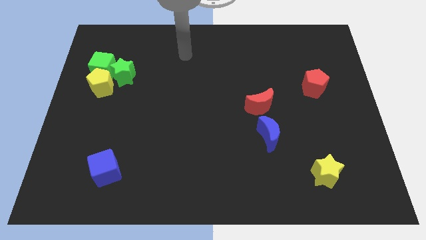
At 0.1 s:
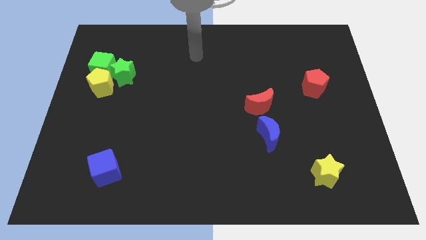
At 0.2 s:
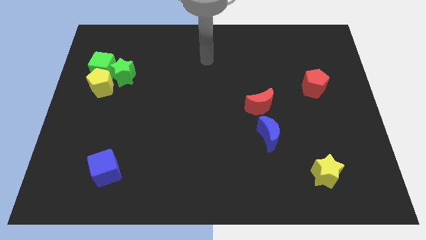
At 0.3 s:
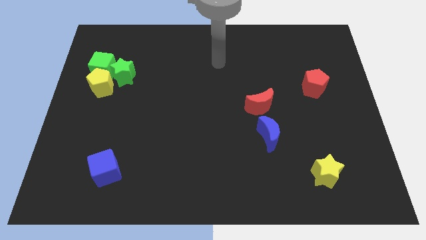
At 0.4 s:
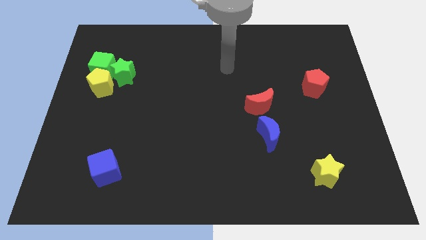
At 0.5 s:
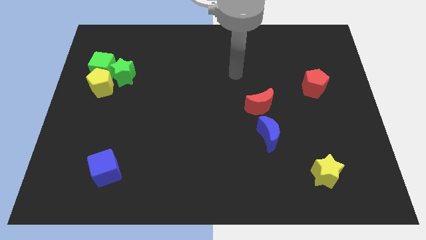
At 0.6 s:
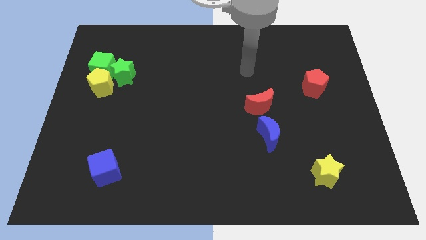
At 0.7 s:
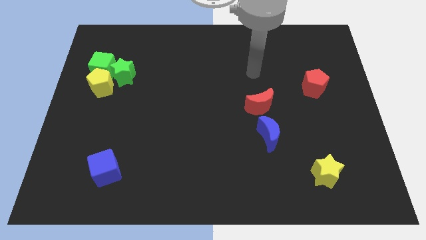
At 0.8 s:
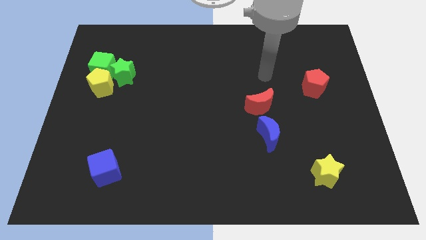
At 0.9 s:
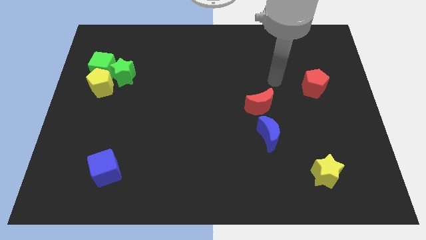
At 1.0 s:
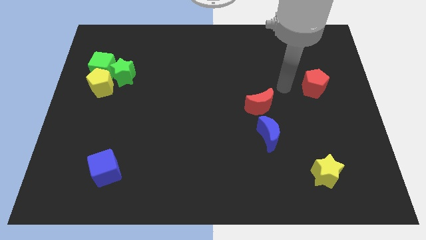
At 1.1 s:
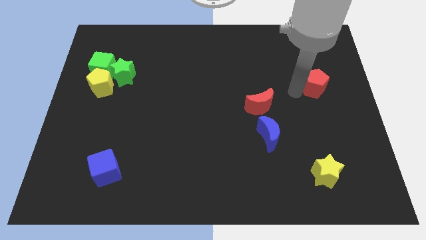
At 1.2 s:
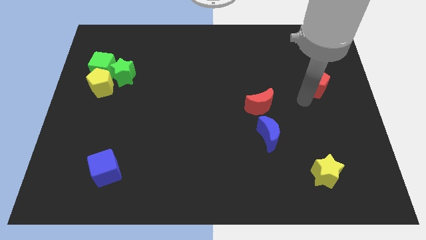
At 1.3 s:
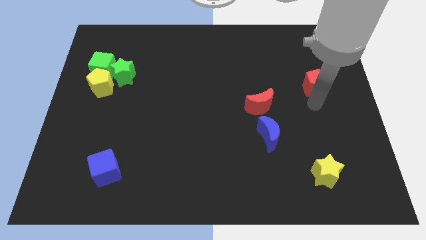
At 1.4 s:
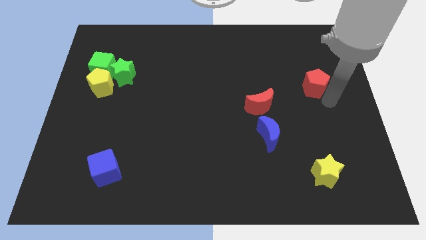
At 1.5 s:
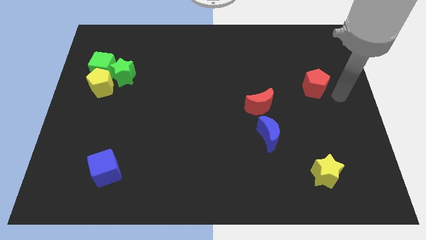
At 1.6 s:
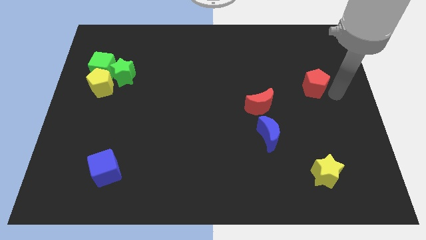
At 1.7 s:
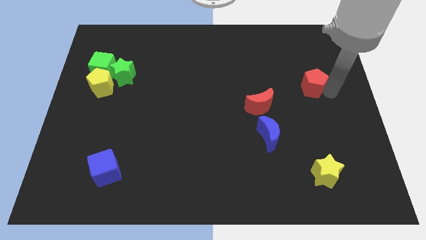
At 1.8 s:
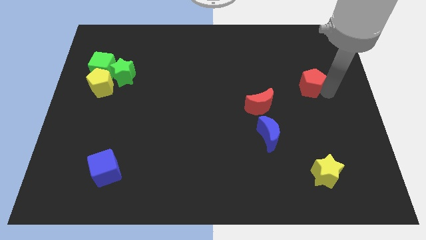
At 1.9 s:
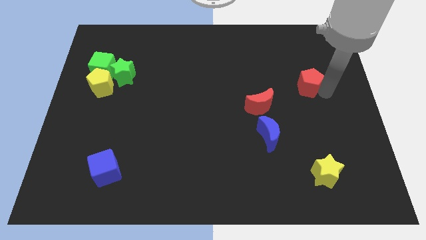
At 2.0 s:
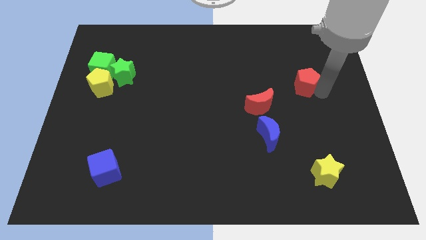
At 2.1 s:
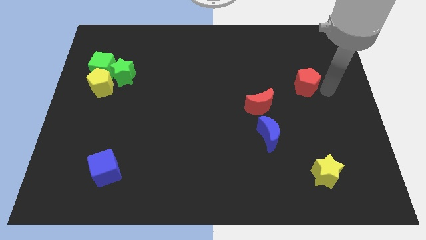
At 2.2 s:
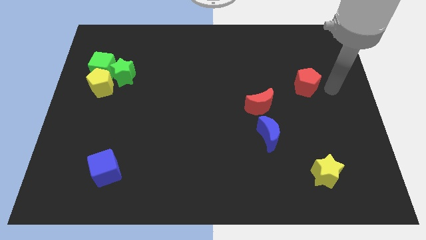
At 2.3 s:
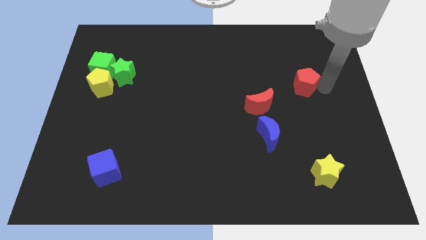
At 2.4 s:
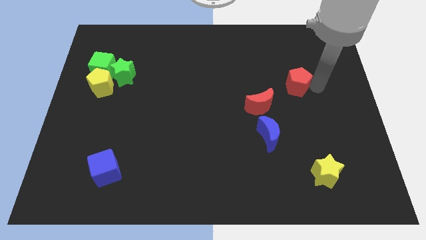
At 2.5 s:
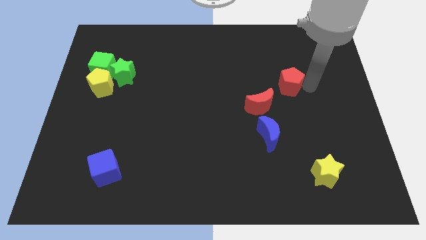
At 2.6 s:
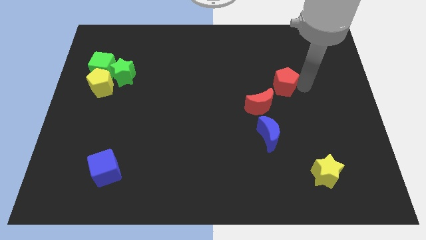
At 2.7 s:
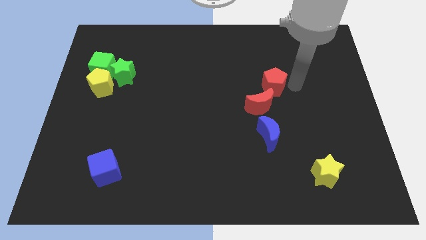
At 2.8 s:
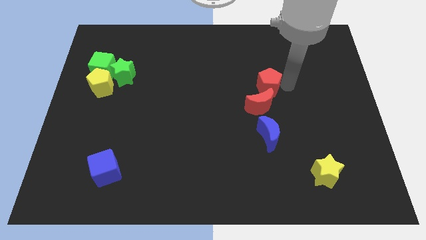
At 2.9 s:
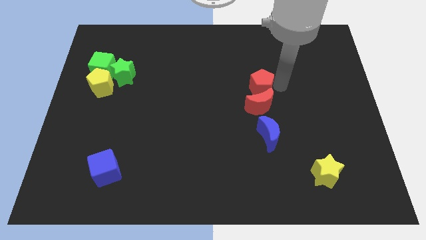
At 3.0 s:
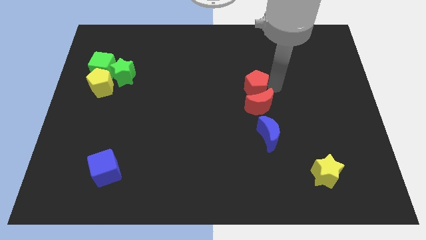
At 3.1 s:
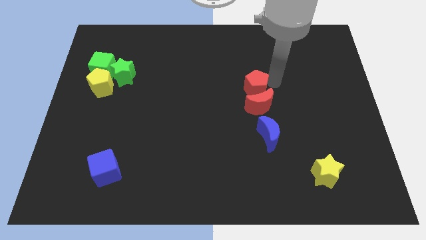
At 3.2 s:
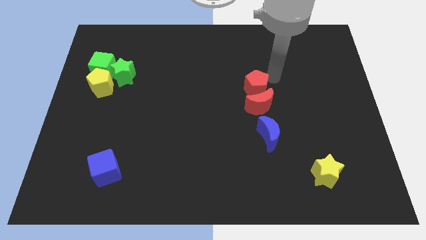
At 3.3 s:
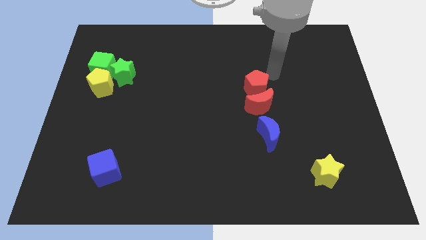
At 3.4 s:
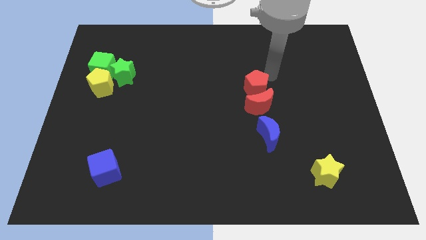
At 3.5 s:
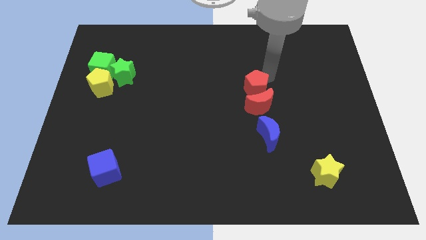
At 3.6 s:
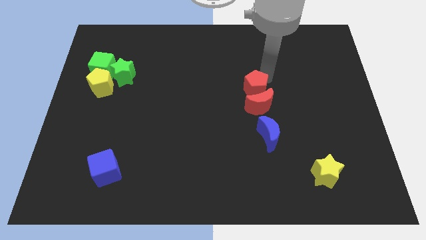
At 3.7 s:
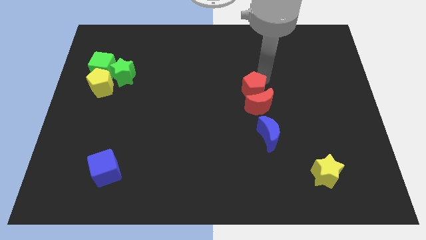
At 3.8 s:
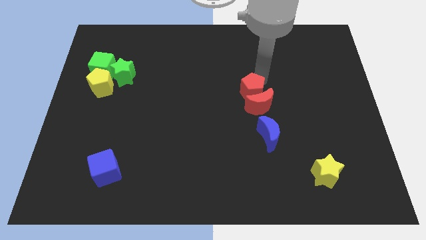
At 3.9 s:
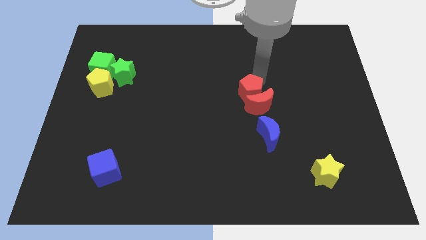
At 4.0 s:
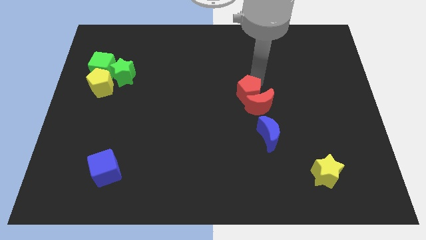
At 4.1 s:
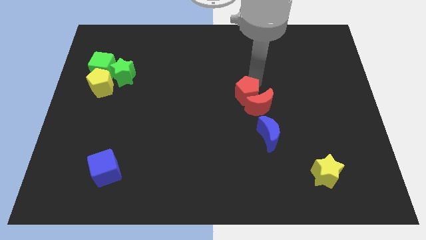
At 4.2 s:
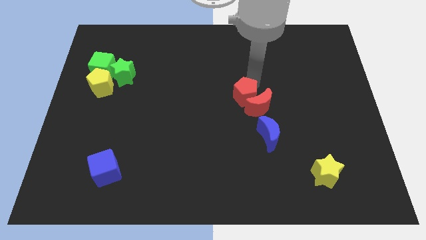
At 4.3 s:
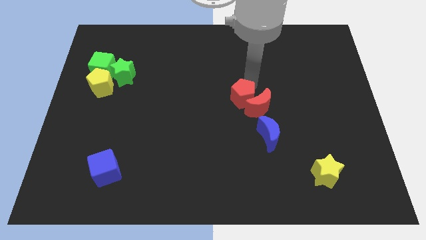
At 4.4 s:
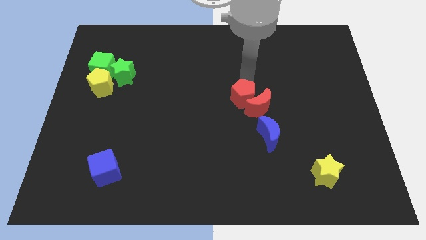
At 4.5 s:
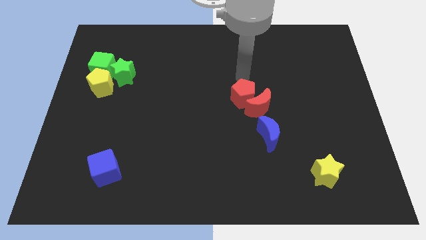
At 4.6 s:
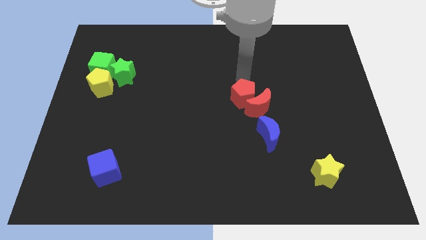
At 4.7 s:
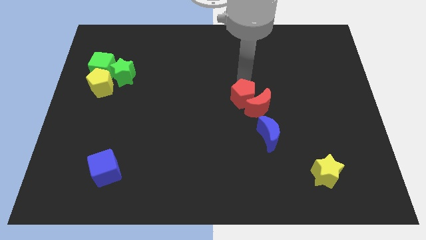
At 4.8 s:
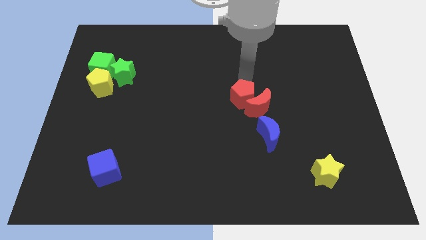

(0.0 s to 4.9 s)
put the red pentagon to the top left of the blue moon

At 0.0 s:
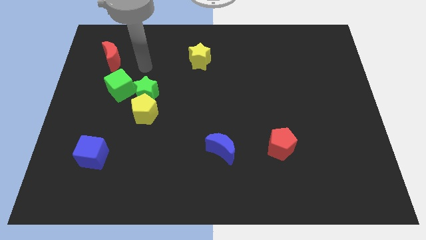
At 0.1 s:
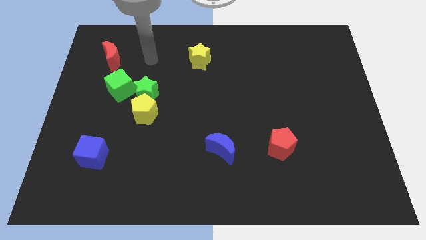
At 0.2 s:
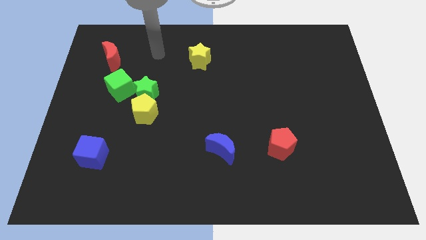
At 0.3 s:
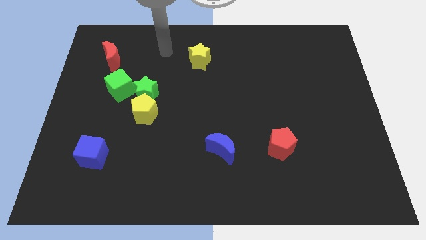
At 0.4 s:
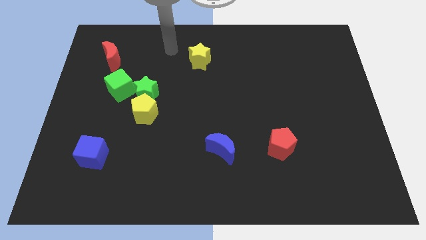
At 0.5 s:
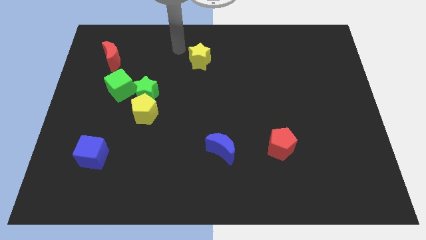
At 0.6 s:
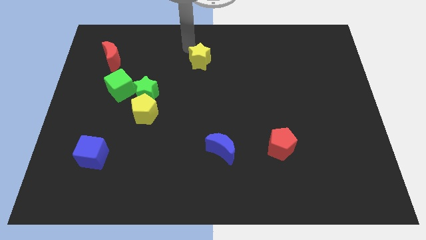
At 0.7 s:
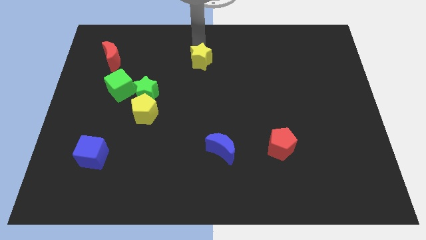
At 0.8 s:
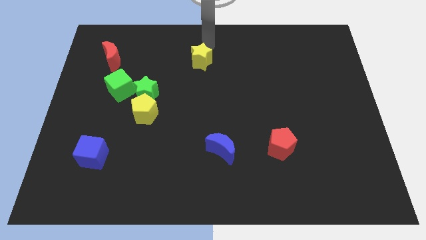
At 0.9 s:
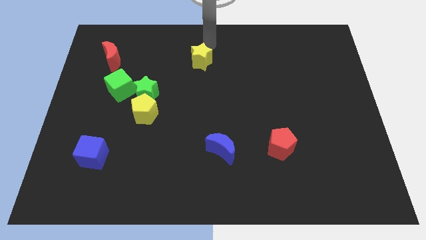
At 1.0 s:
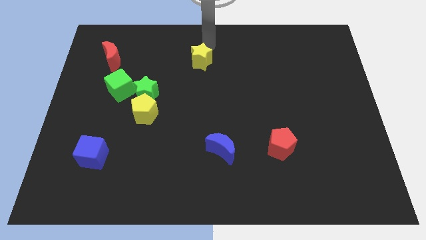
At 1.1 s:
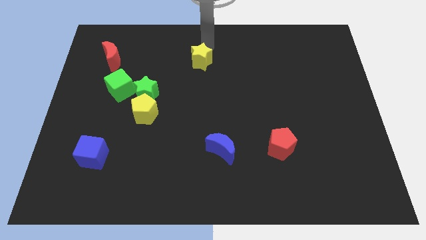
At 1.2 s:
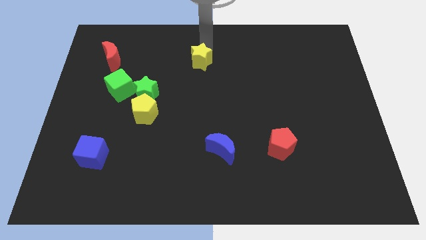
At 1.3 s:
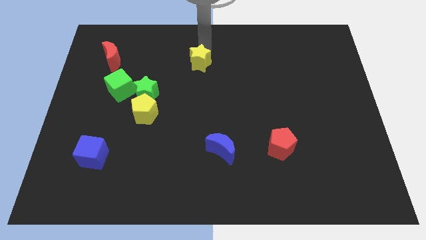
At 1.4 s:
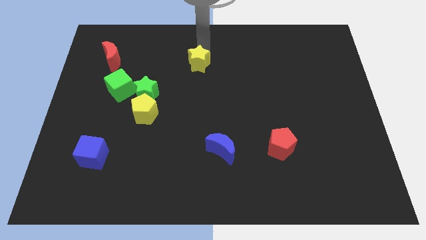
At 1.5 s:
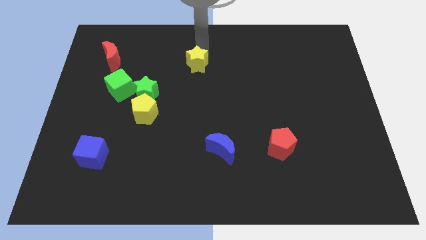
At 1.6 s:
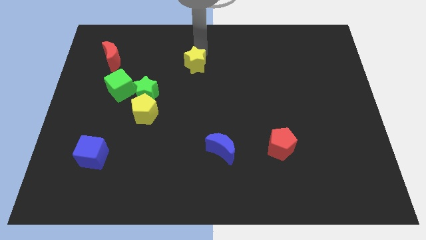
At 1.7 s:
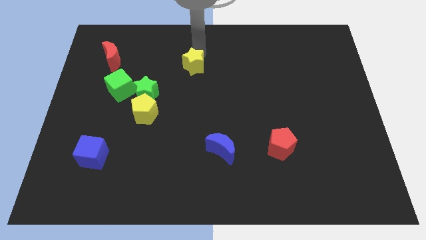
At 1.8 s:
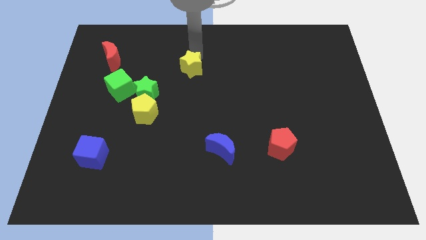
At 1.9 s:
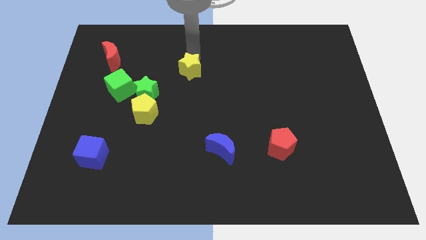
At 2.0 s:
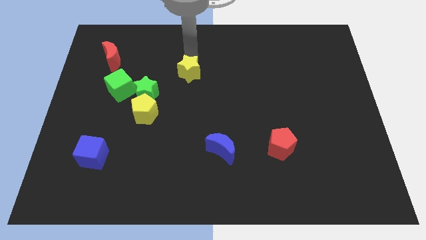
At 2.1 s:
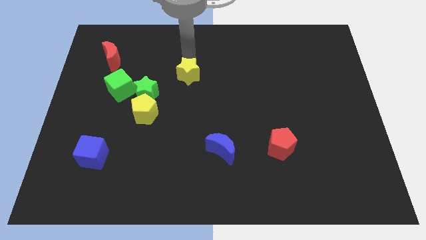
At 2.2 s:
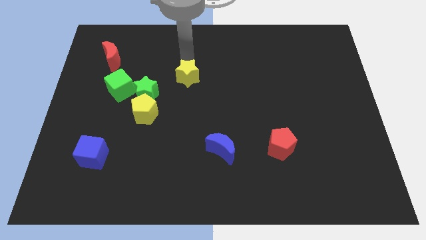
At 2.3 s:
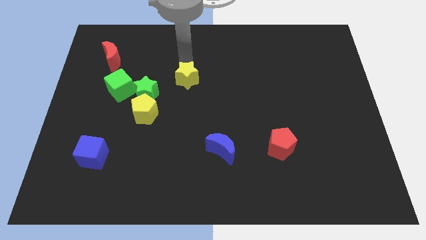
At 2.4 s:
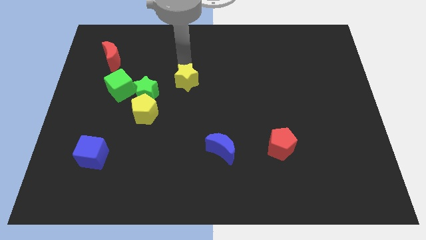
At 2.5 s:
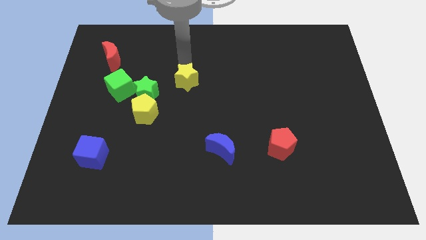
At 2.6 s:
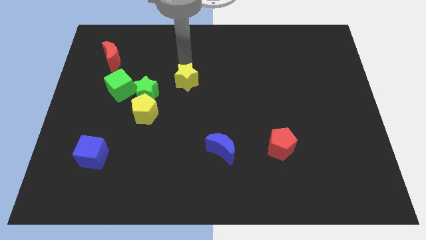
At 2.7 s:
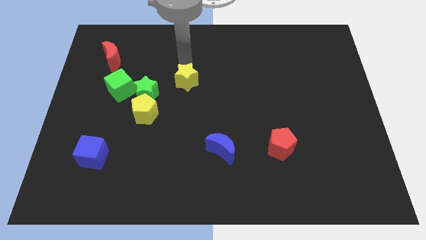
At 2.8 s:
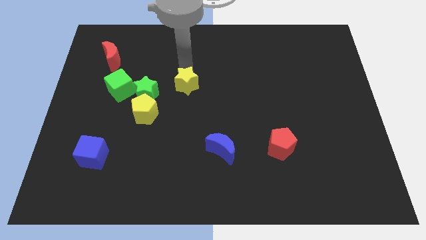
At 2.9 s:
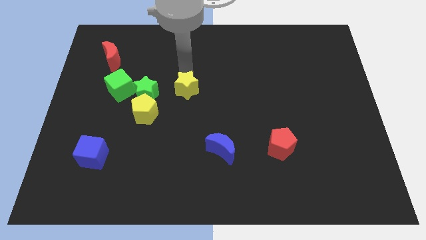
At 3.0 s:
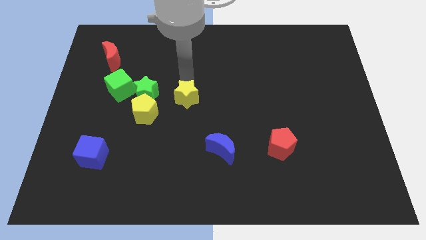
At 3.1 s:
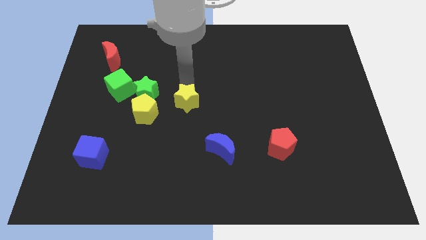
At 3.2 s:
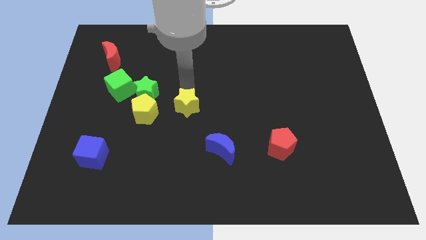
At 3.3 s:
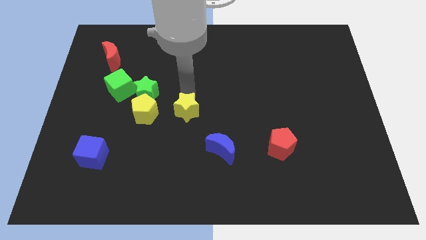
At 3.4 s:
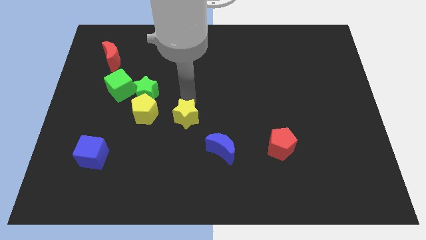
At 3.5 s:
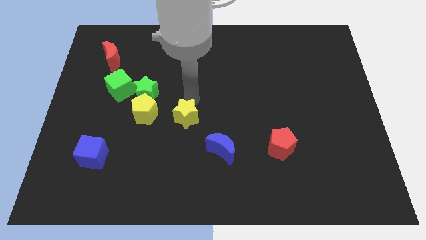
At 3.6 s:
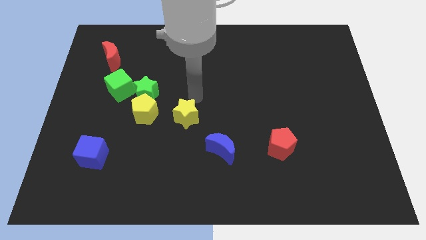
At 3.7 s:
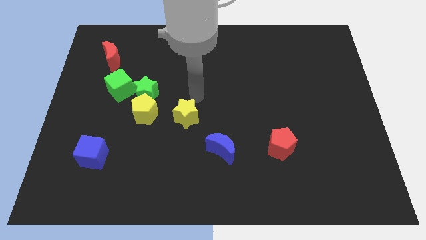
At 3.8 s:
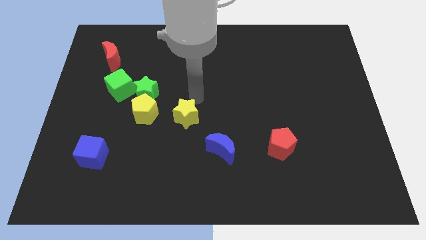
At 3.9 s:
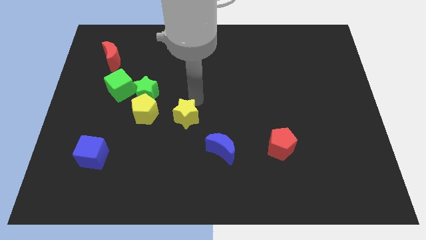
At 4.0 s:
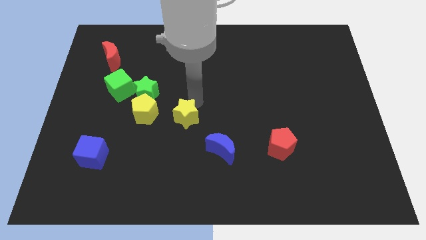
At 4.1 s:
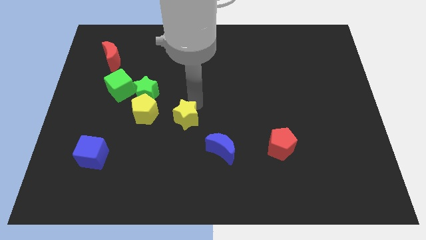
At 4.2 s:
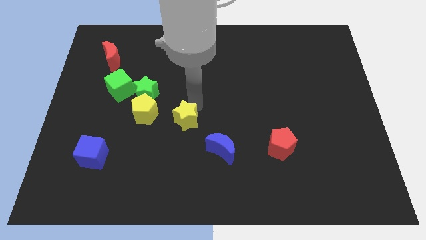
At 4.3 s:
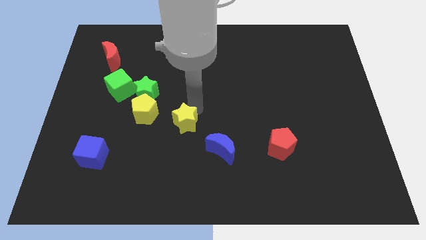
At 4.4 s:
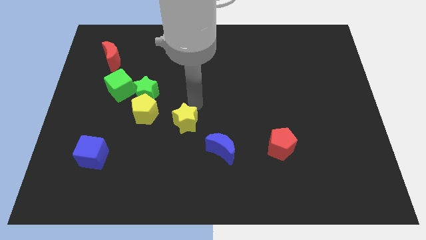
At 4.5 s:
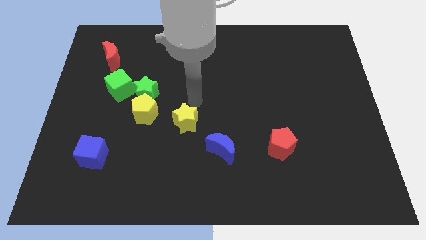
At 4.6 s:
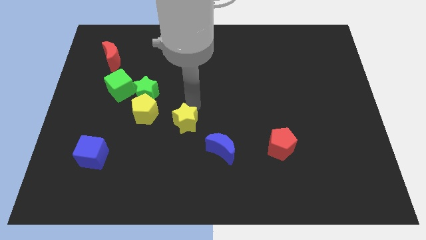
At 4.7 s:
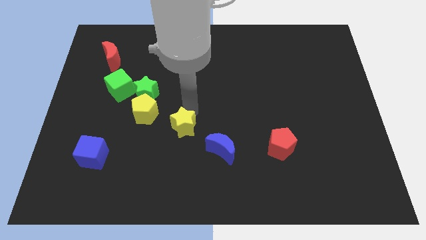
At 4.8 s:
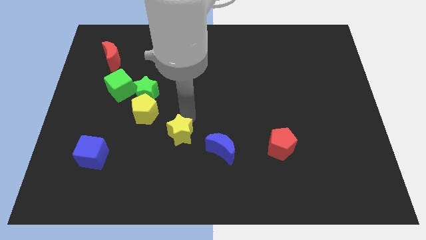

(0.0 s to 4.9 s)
move the yellow star to the left side of the blue moon
